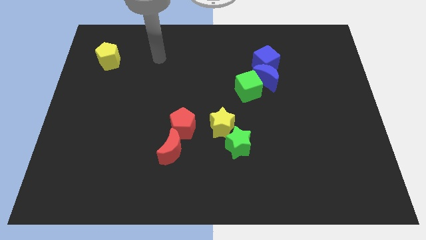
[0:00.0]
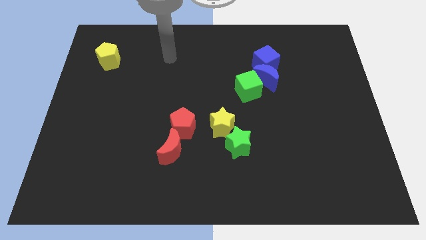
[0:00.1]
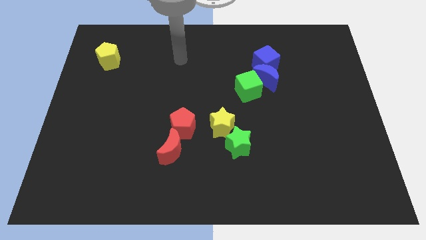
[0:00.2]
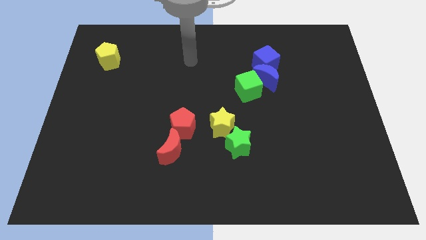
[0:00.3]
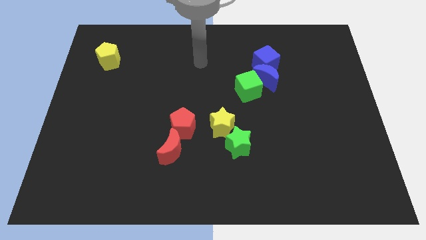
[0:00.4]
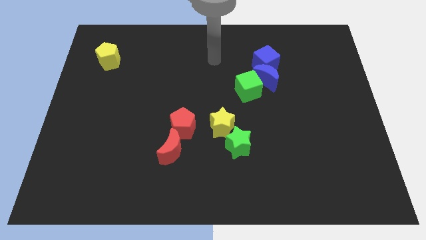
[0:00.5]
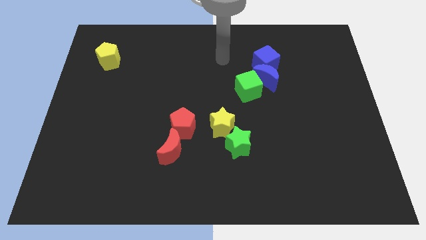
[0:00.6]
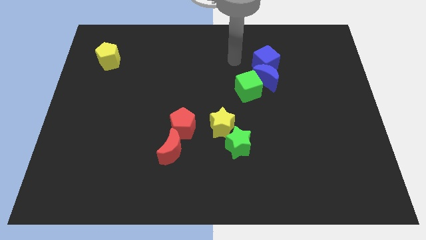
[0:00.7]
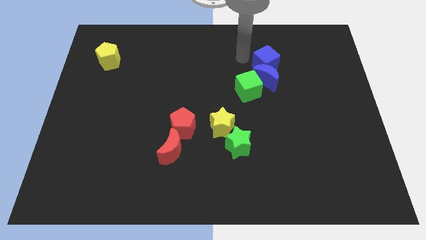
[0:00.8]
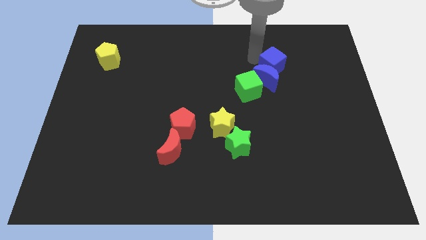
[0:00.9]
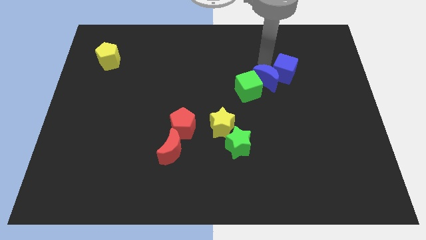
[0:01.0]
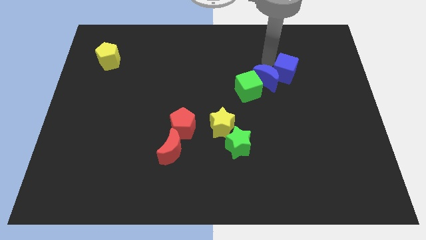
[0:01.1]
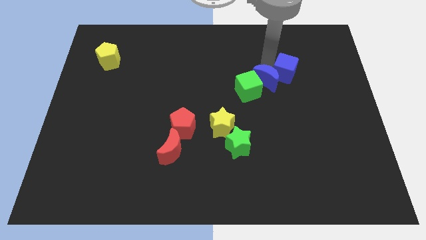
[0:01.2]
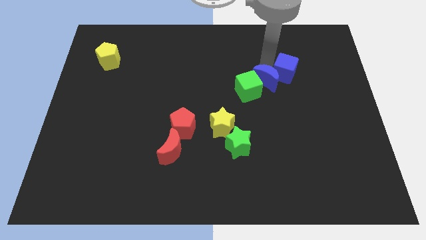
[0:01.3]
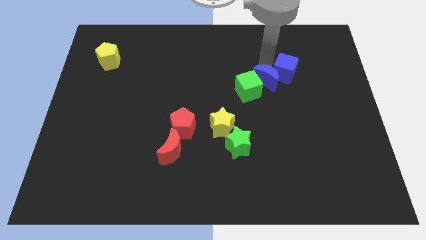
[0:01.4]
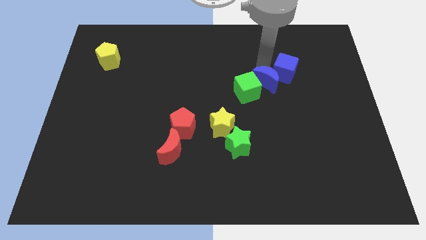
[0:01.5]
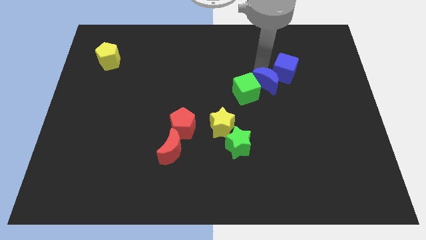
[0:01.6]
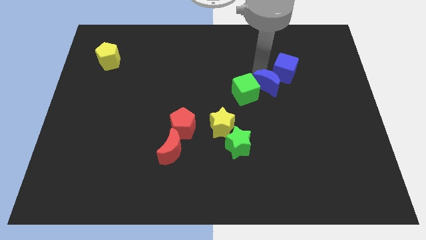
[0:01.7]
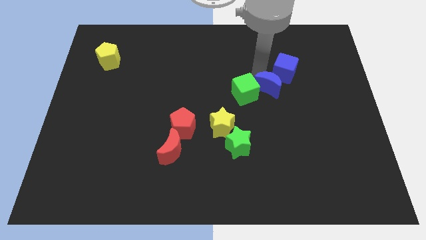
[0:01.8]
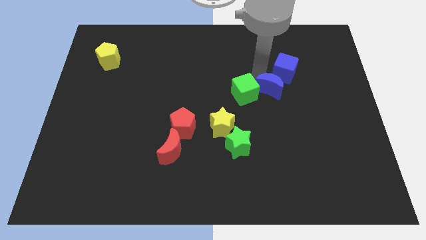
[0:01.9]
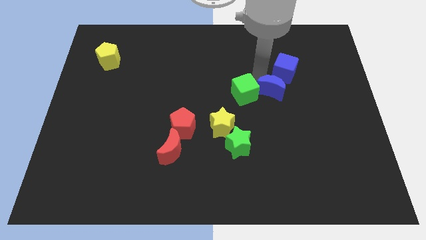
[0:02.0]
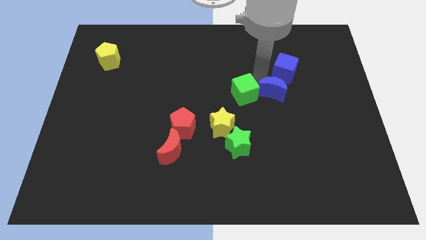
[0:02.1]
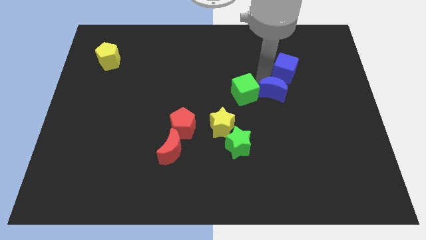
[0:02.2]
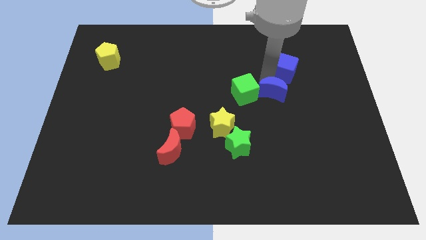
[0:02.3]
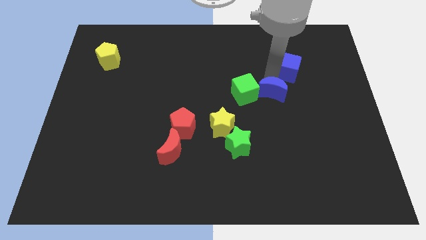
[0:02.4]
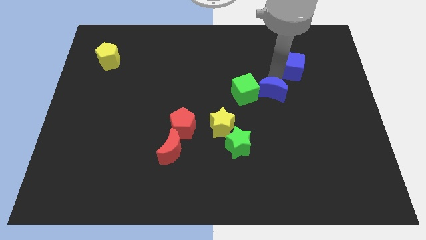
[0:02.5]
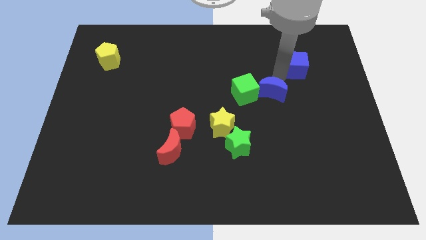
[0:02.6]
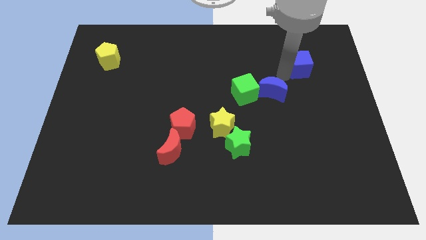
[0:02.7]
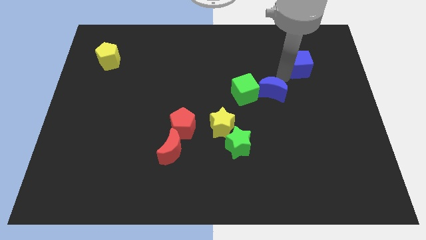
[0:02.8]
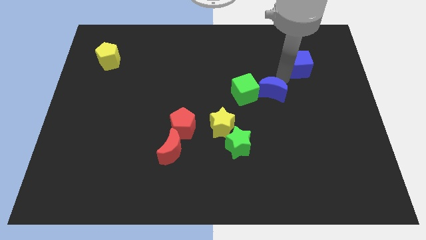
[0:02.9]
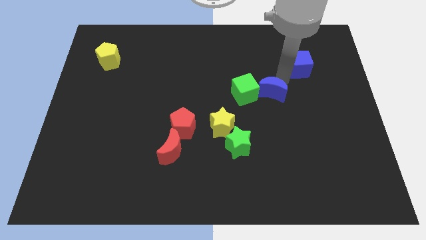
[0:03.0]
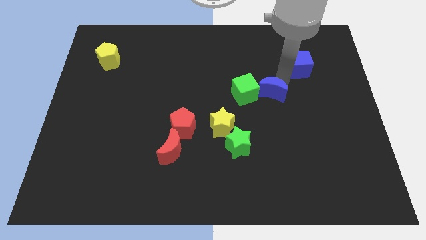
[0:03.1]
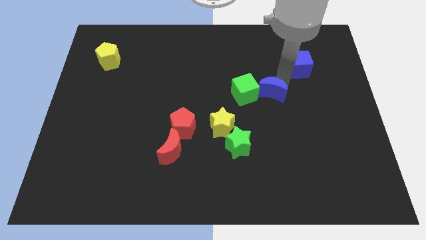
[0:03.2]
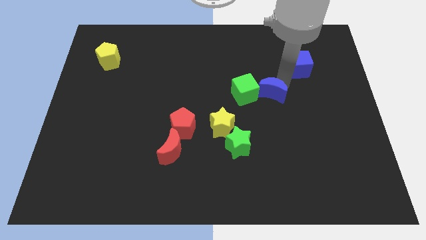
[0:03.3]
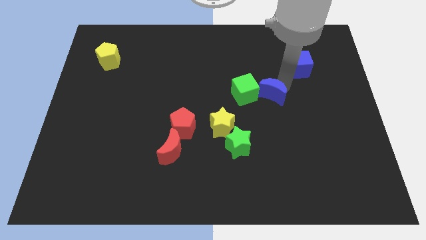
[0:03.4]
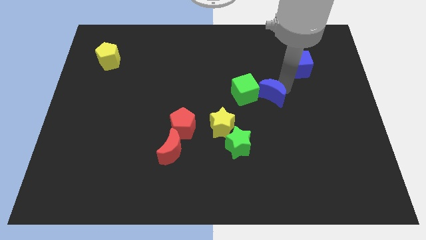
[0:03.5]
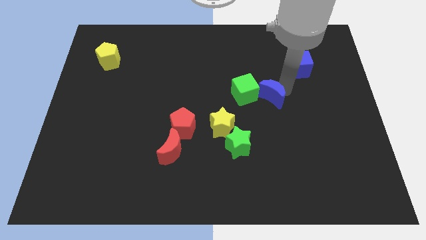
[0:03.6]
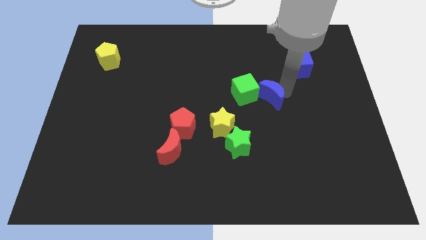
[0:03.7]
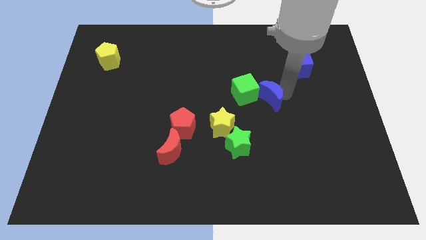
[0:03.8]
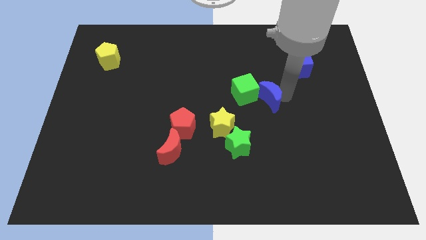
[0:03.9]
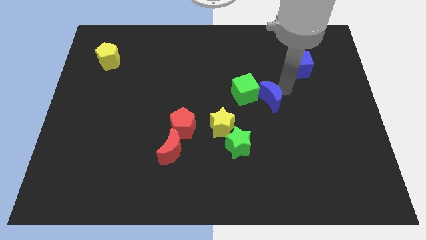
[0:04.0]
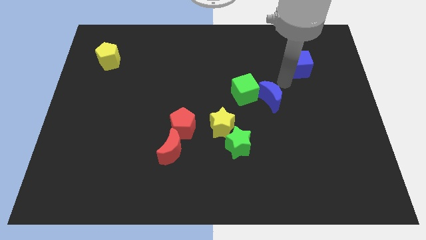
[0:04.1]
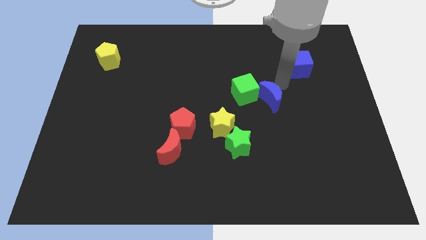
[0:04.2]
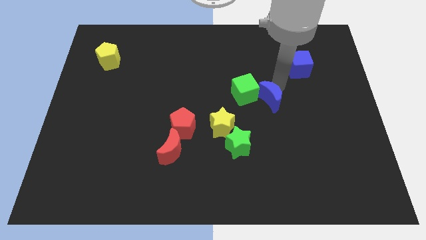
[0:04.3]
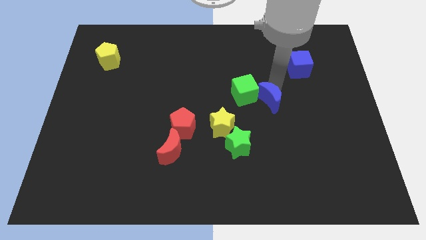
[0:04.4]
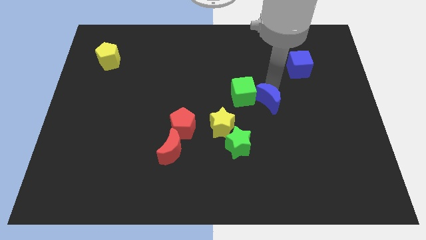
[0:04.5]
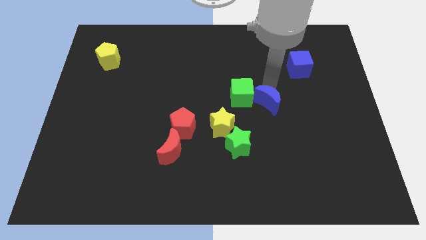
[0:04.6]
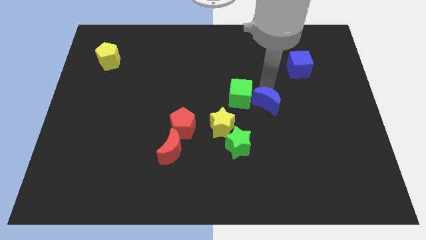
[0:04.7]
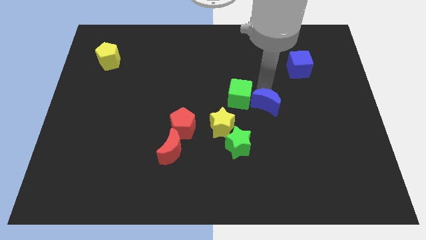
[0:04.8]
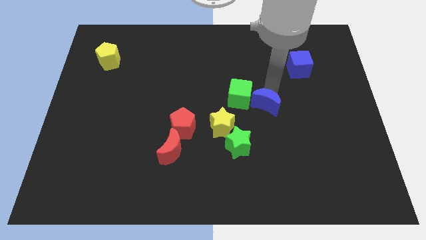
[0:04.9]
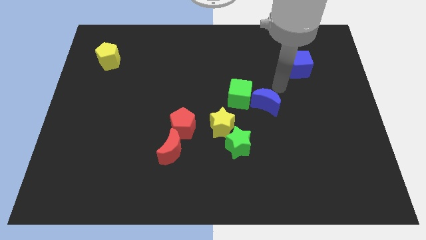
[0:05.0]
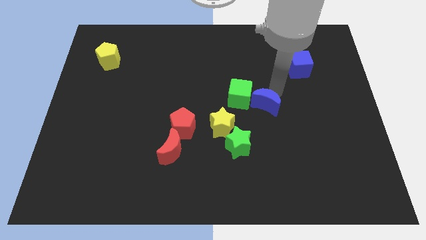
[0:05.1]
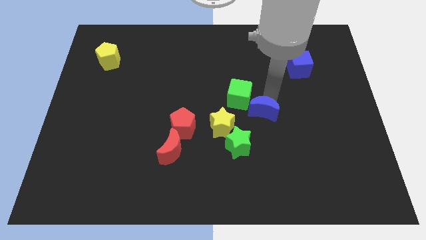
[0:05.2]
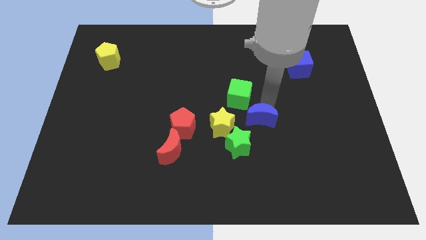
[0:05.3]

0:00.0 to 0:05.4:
move the blue moon below the green cube

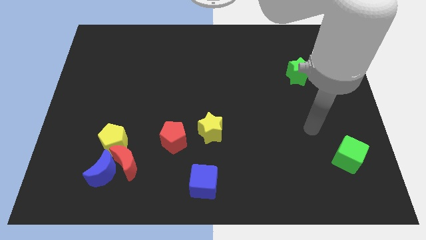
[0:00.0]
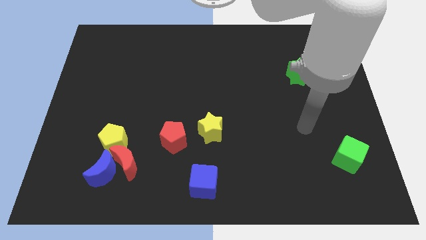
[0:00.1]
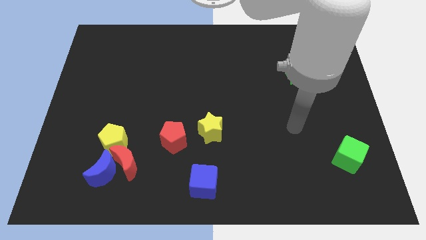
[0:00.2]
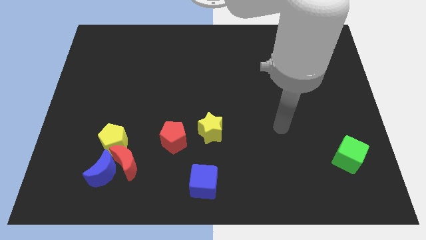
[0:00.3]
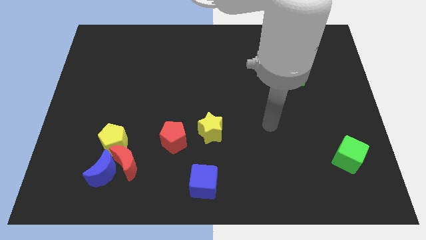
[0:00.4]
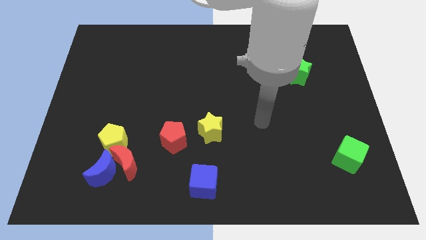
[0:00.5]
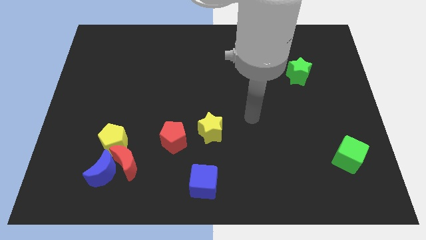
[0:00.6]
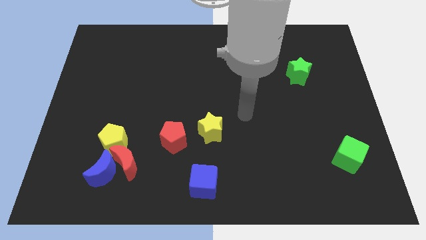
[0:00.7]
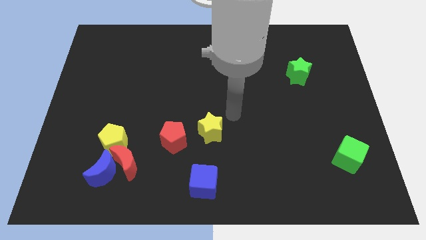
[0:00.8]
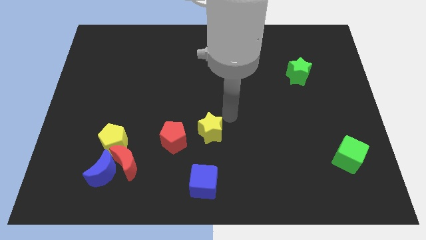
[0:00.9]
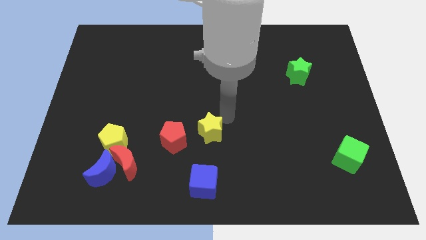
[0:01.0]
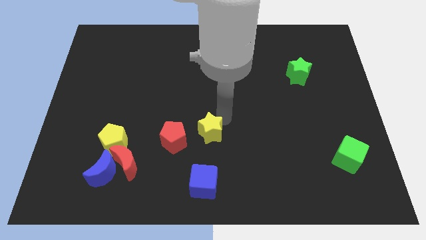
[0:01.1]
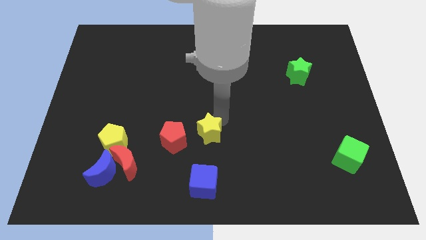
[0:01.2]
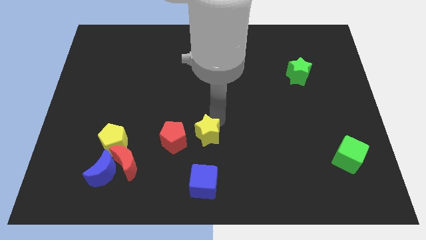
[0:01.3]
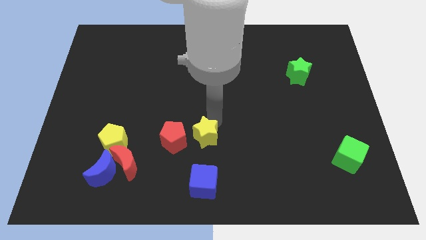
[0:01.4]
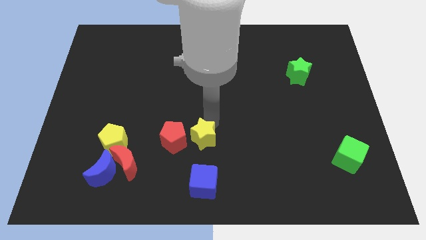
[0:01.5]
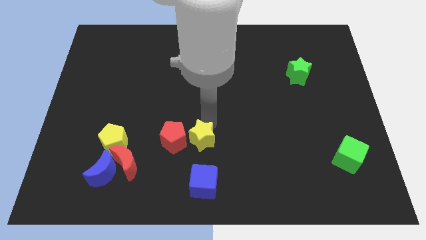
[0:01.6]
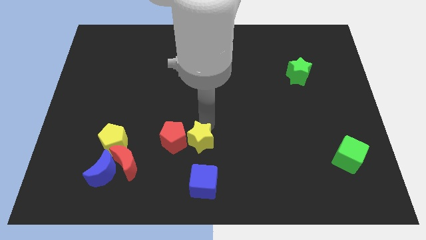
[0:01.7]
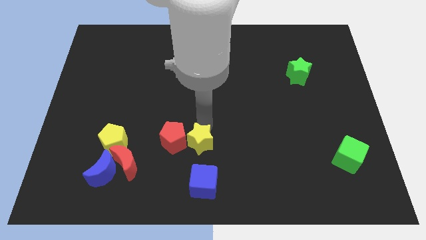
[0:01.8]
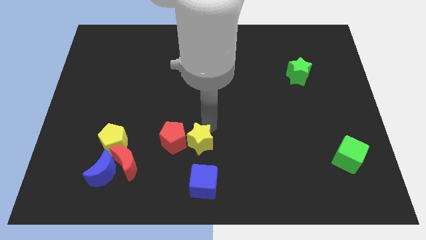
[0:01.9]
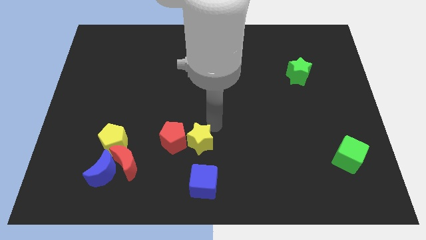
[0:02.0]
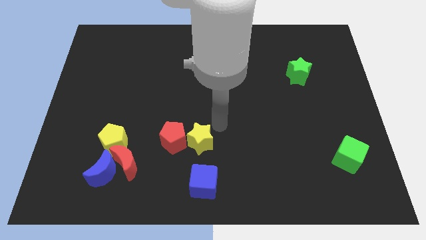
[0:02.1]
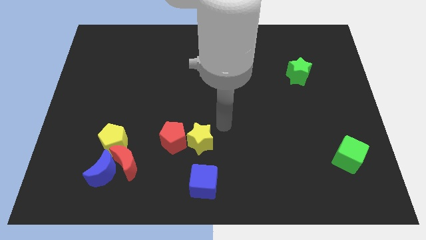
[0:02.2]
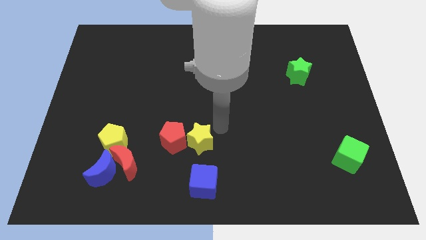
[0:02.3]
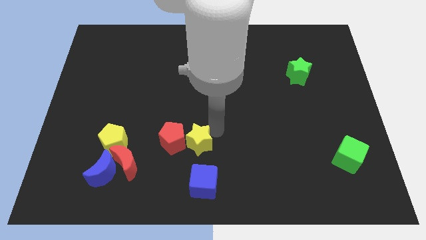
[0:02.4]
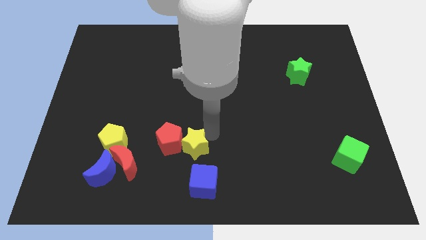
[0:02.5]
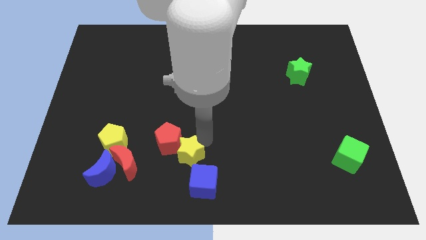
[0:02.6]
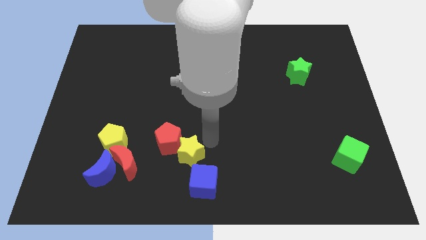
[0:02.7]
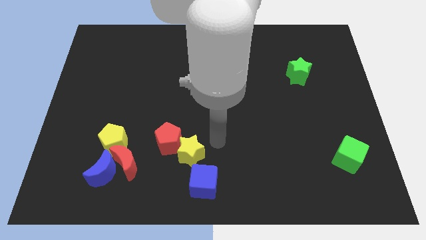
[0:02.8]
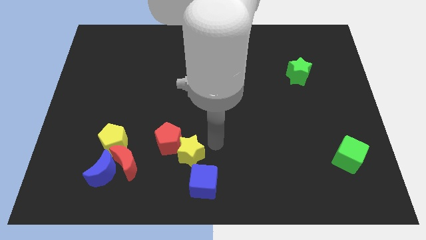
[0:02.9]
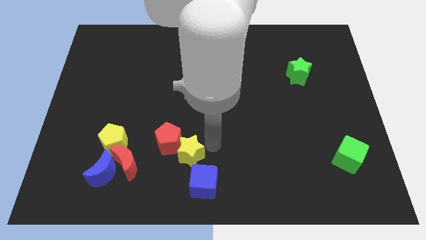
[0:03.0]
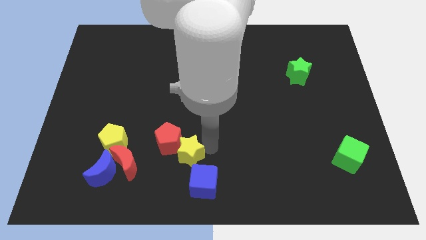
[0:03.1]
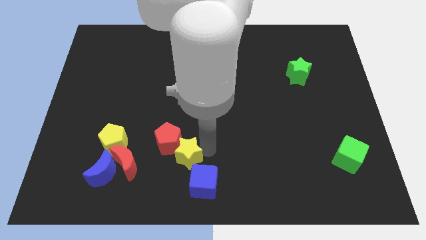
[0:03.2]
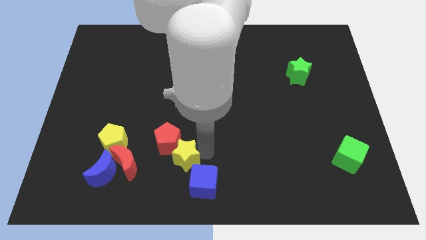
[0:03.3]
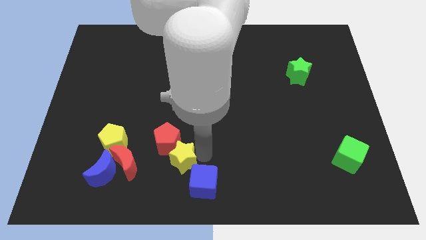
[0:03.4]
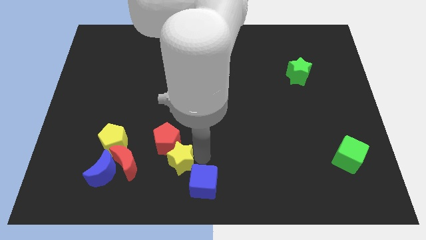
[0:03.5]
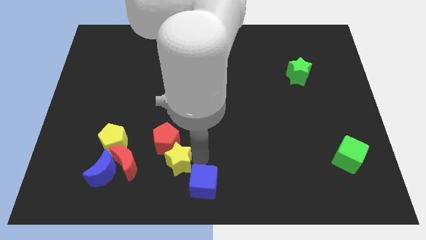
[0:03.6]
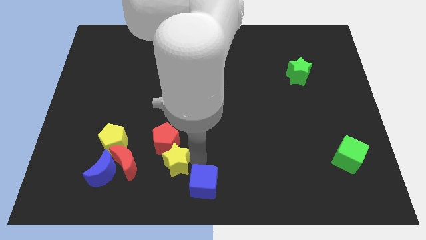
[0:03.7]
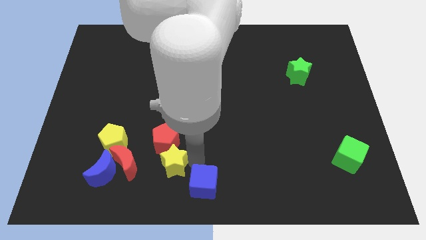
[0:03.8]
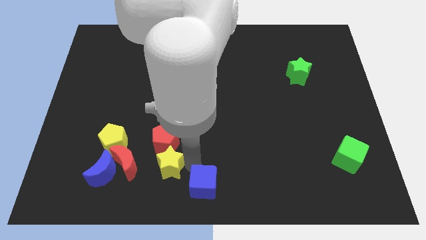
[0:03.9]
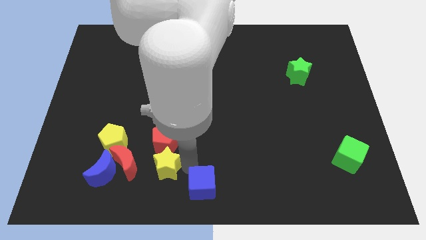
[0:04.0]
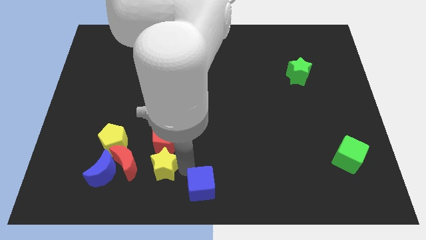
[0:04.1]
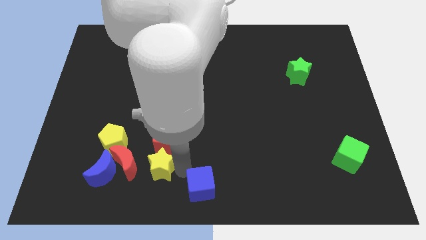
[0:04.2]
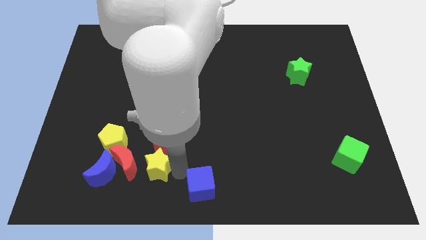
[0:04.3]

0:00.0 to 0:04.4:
move the yellow star diagonally down and to the right of the yellow pentagon
